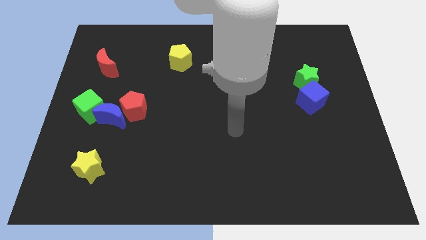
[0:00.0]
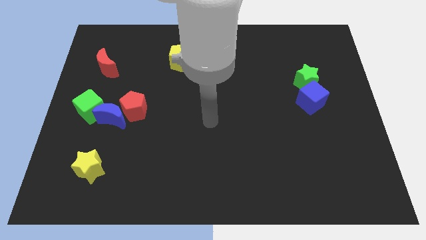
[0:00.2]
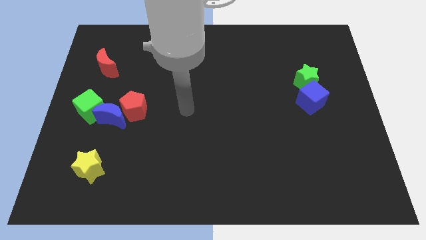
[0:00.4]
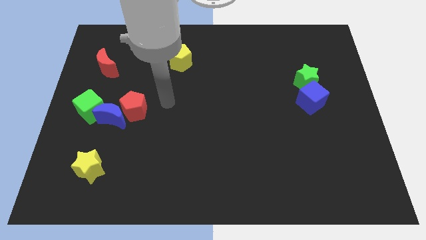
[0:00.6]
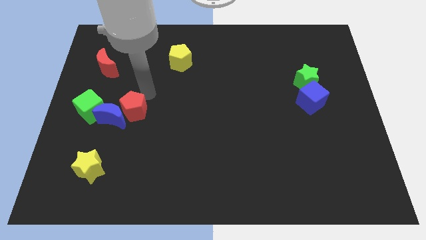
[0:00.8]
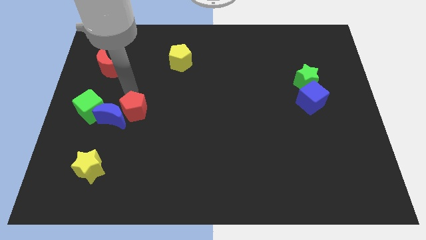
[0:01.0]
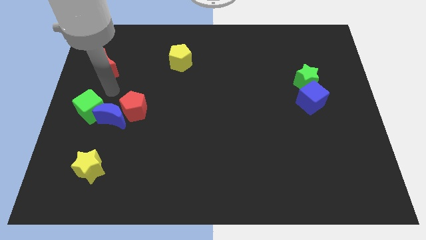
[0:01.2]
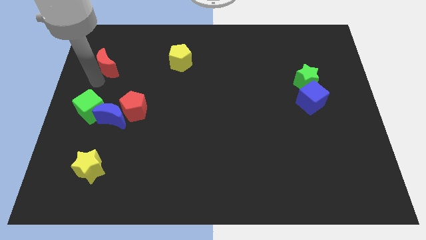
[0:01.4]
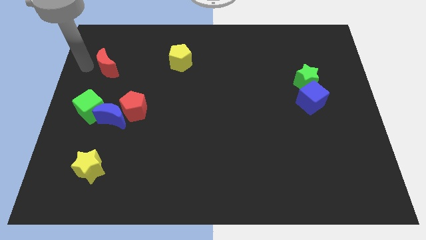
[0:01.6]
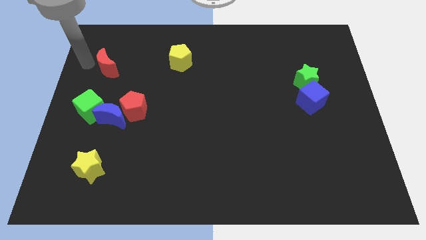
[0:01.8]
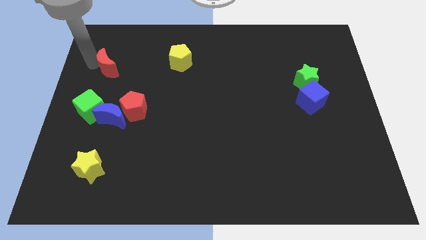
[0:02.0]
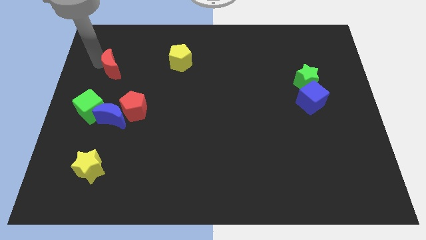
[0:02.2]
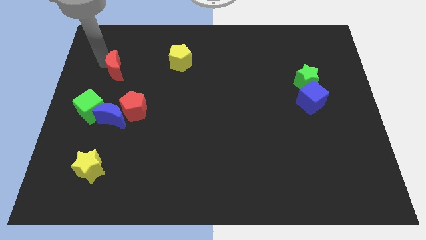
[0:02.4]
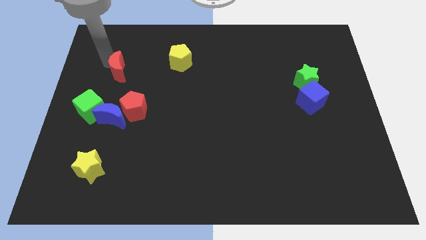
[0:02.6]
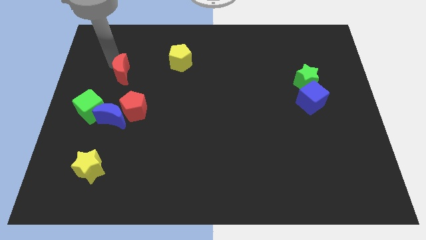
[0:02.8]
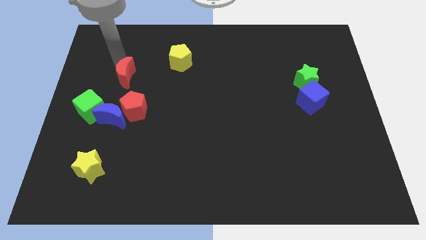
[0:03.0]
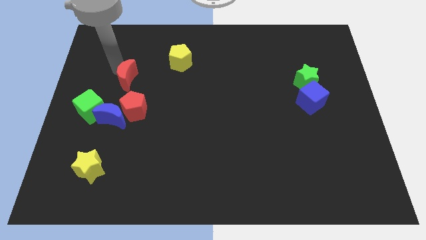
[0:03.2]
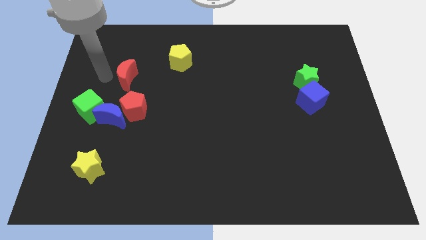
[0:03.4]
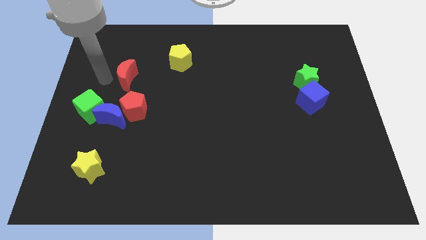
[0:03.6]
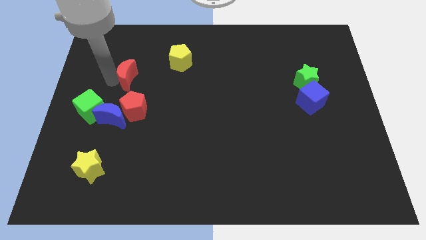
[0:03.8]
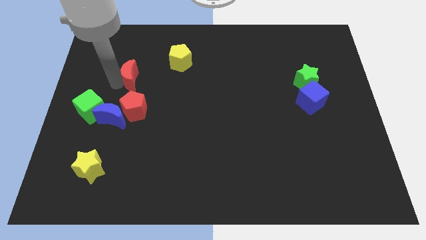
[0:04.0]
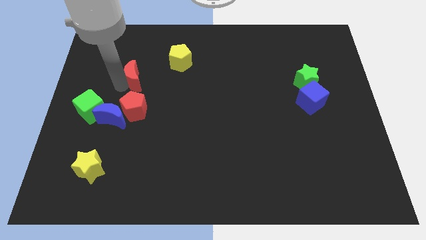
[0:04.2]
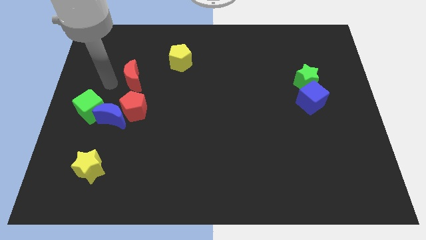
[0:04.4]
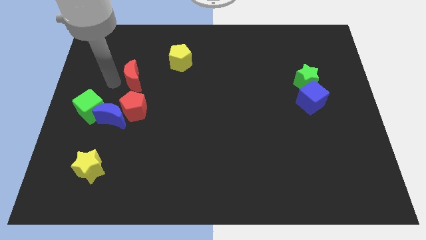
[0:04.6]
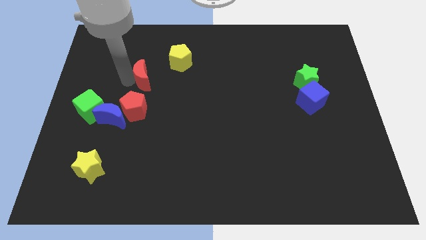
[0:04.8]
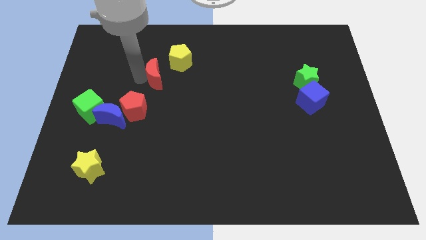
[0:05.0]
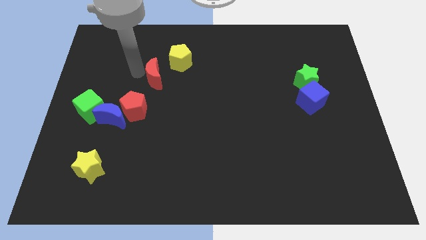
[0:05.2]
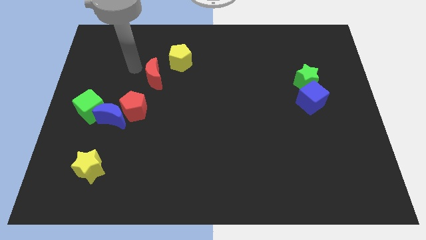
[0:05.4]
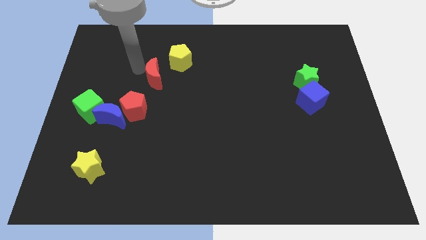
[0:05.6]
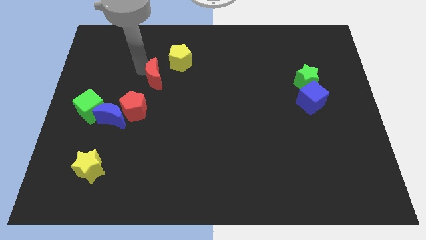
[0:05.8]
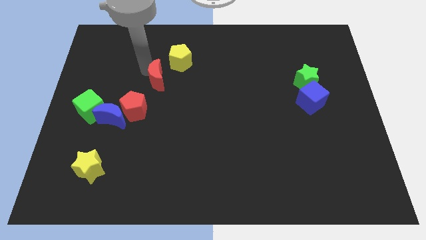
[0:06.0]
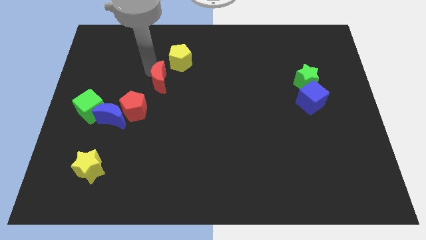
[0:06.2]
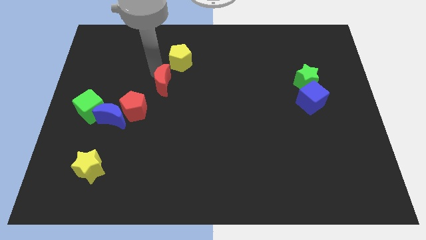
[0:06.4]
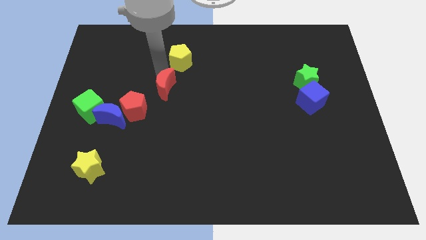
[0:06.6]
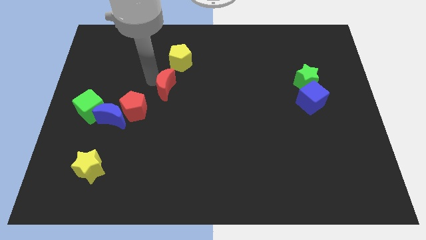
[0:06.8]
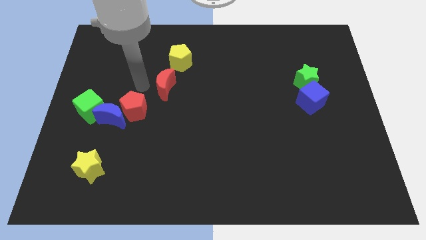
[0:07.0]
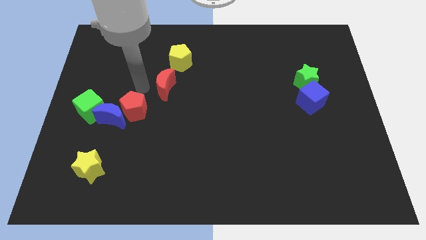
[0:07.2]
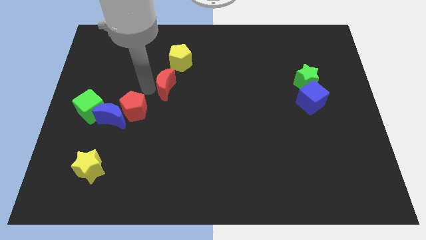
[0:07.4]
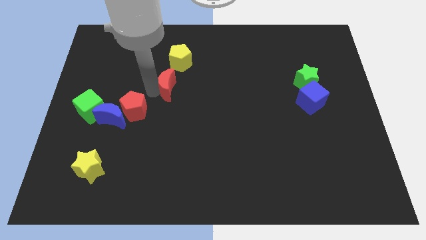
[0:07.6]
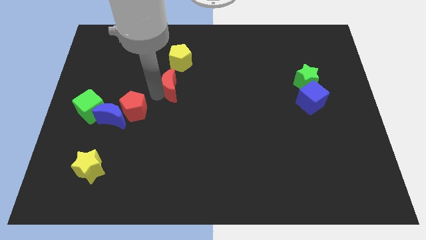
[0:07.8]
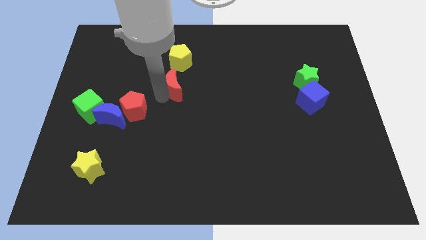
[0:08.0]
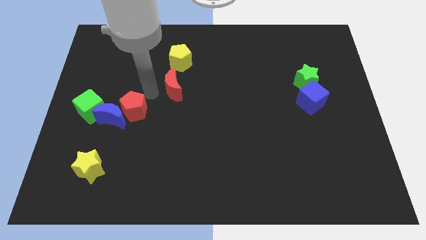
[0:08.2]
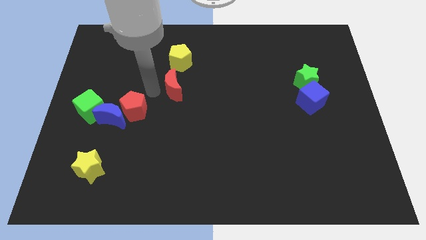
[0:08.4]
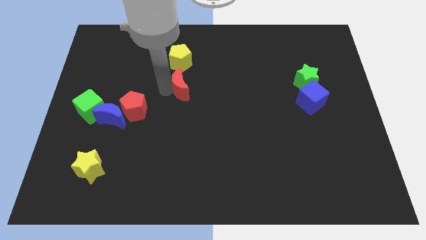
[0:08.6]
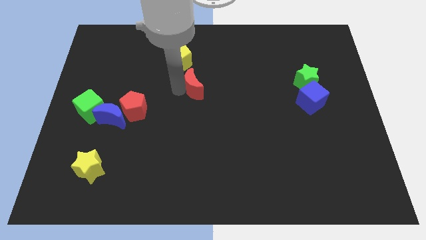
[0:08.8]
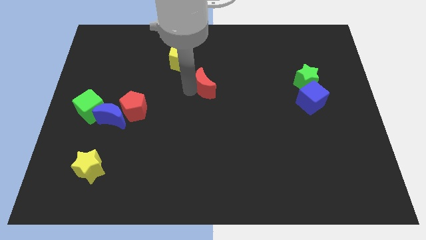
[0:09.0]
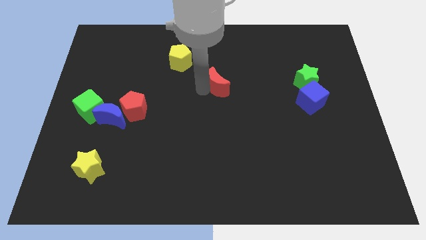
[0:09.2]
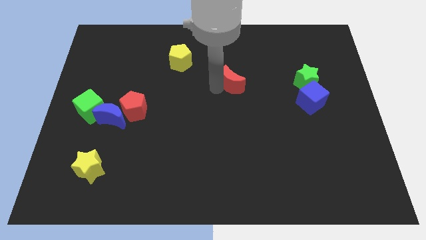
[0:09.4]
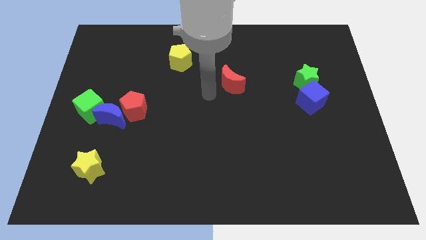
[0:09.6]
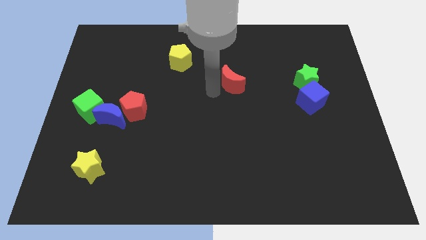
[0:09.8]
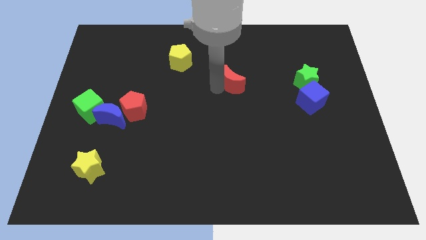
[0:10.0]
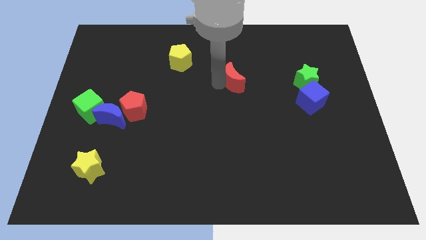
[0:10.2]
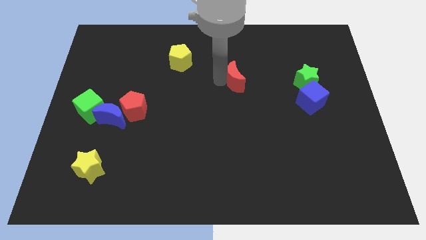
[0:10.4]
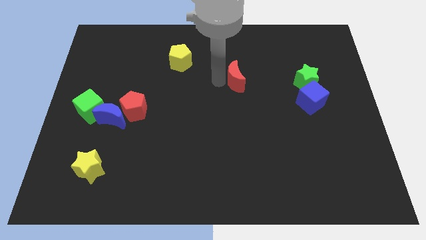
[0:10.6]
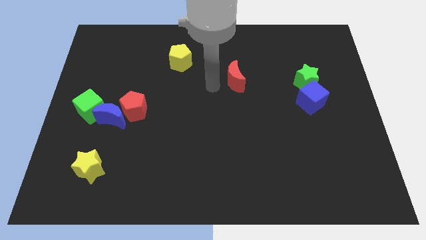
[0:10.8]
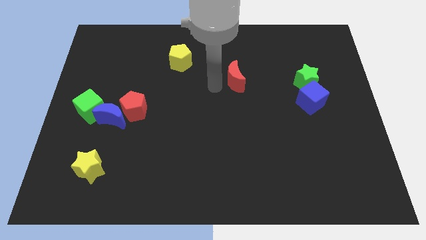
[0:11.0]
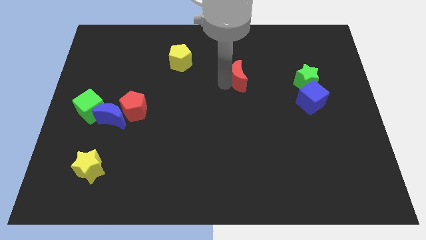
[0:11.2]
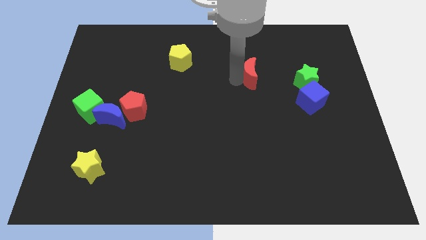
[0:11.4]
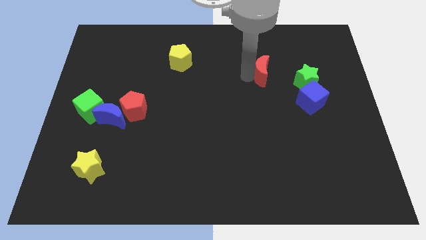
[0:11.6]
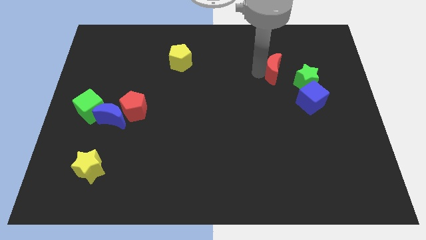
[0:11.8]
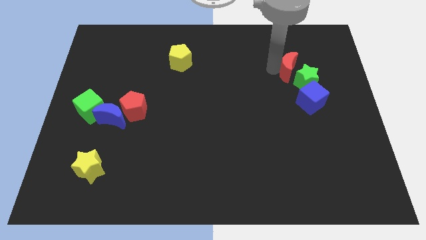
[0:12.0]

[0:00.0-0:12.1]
move the red moon next to the green star

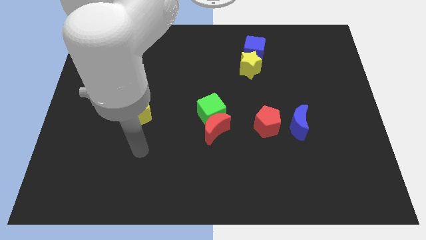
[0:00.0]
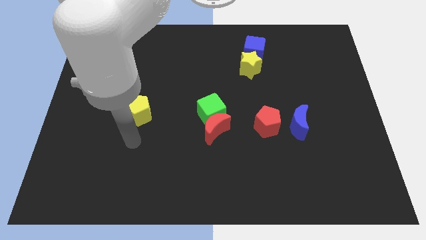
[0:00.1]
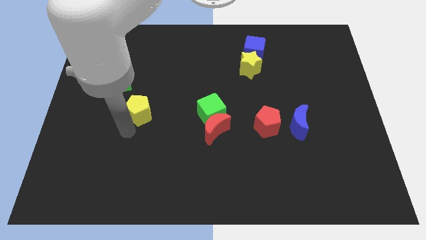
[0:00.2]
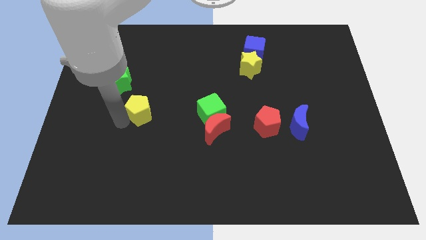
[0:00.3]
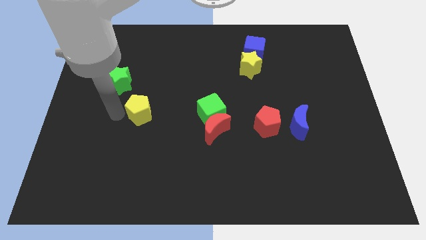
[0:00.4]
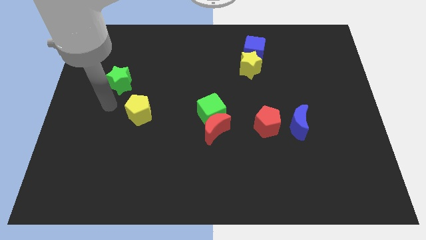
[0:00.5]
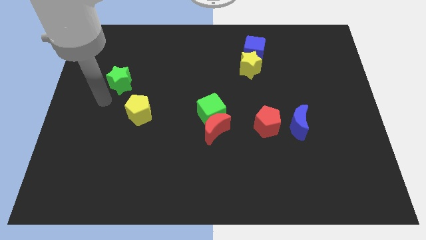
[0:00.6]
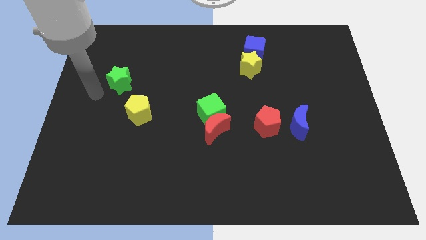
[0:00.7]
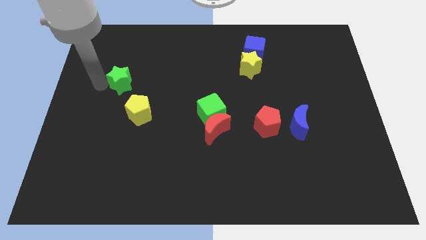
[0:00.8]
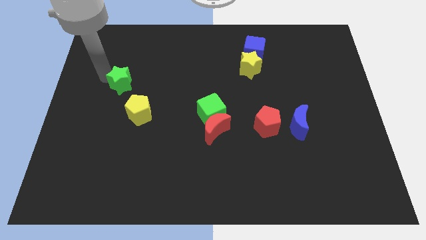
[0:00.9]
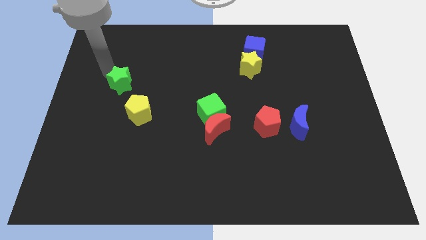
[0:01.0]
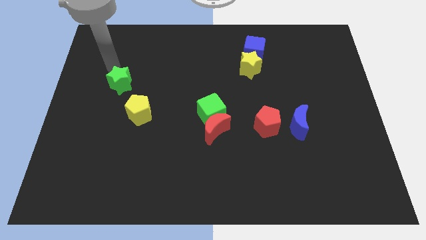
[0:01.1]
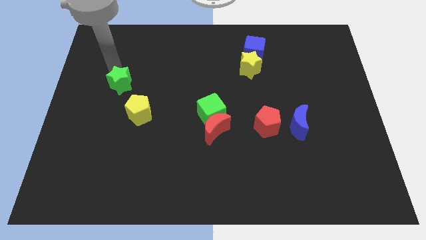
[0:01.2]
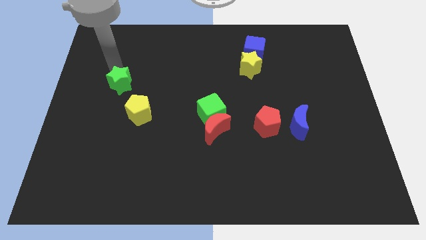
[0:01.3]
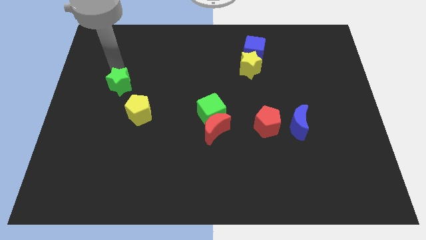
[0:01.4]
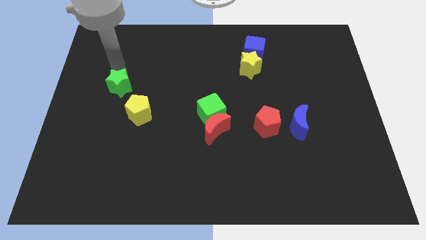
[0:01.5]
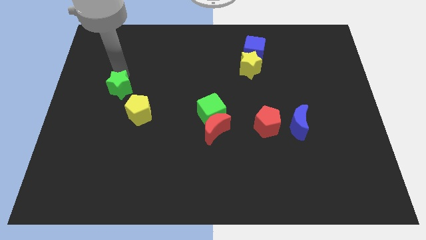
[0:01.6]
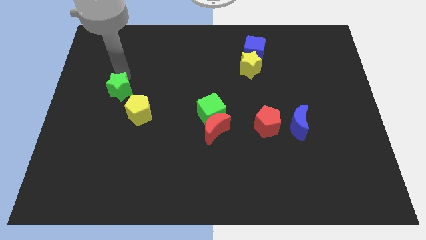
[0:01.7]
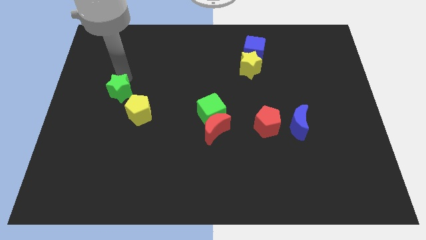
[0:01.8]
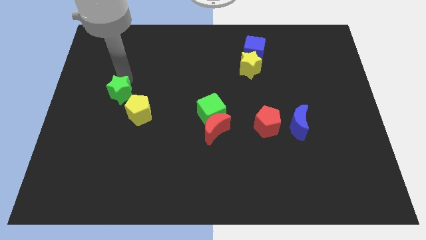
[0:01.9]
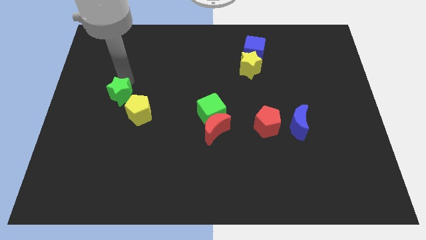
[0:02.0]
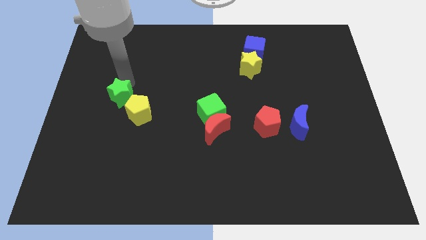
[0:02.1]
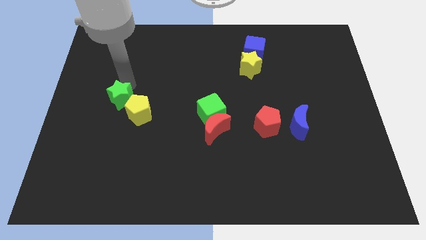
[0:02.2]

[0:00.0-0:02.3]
put the green star to the yellow pentagon
